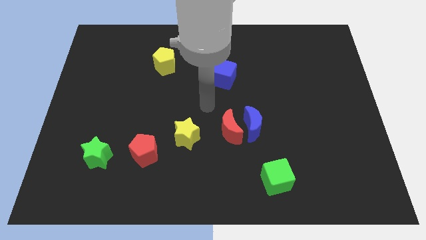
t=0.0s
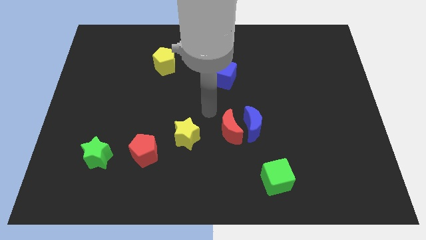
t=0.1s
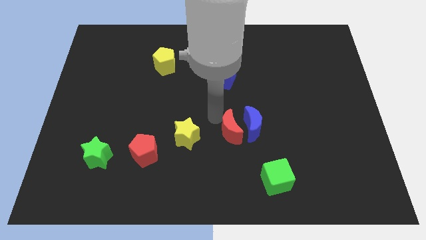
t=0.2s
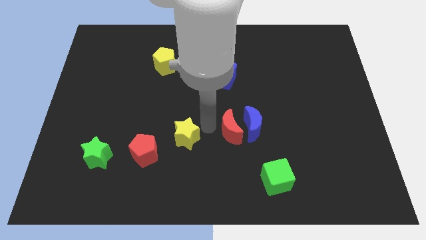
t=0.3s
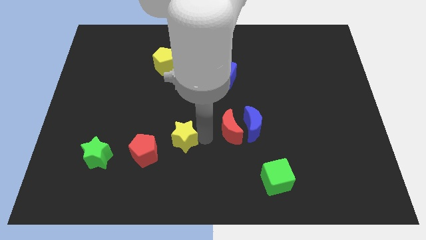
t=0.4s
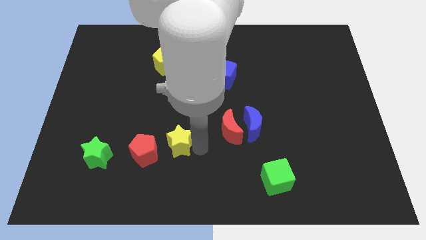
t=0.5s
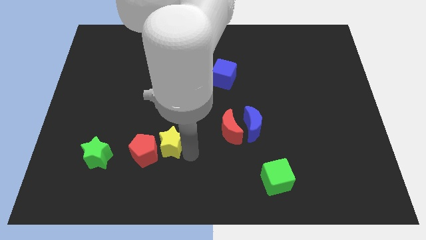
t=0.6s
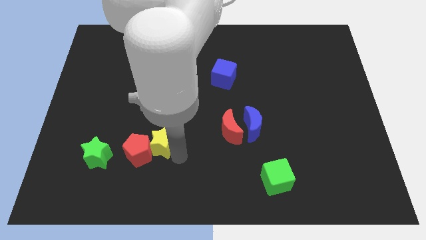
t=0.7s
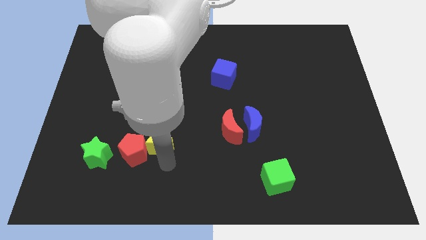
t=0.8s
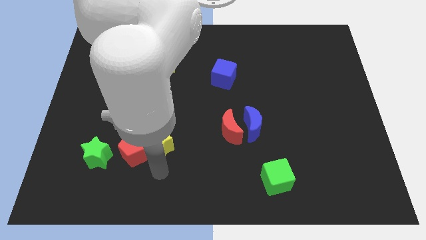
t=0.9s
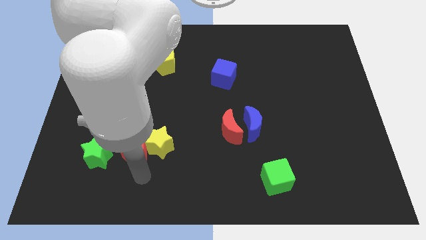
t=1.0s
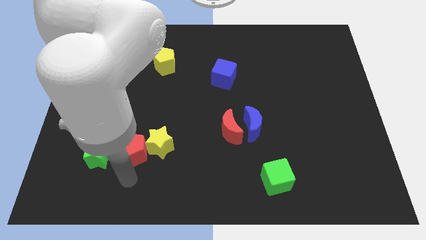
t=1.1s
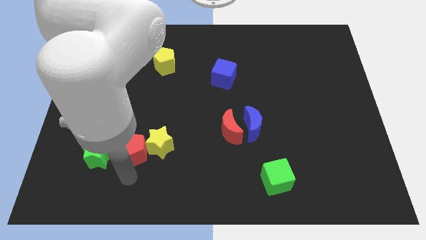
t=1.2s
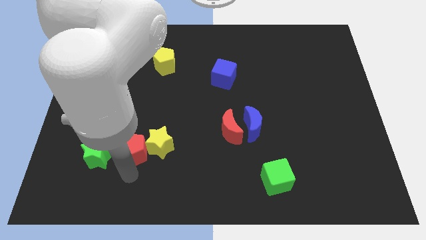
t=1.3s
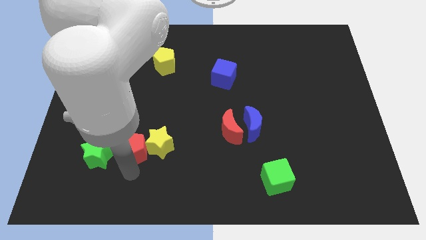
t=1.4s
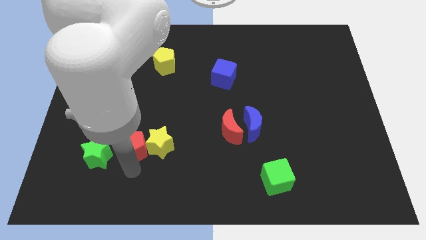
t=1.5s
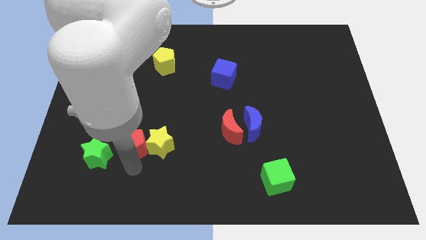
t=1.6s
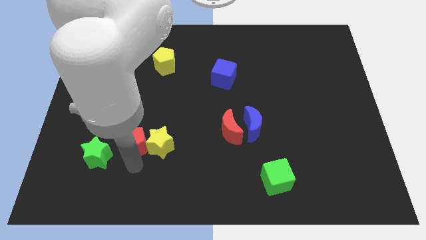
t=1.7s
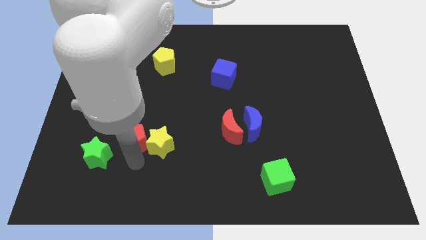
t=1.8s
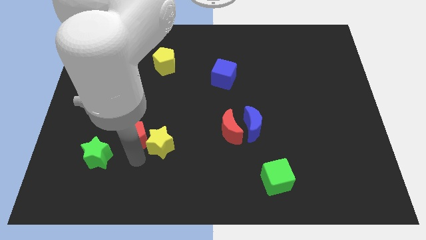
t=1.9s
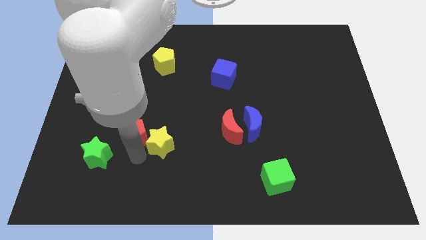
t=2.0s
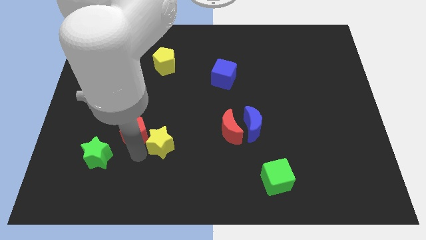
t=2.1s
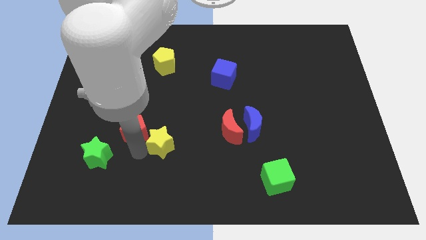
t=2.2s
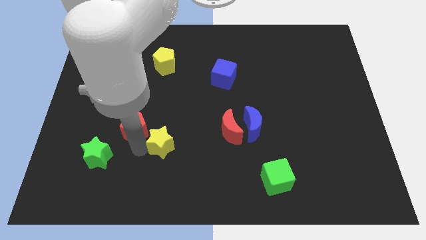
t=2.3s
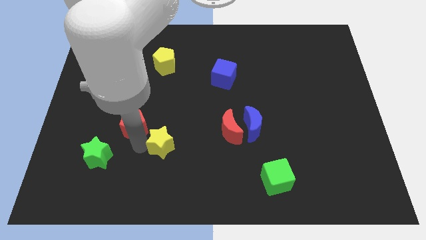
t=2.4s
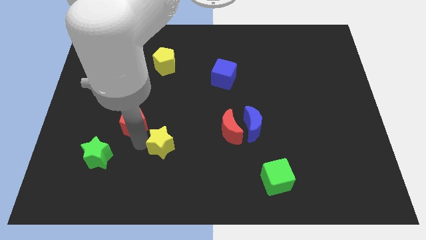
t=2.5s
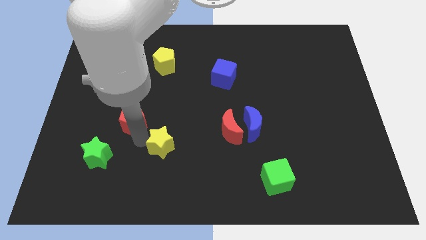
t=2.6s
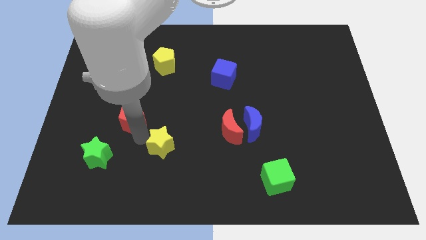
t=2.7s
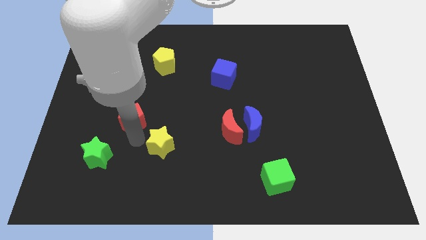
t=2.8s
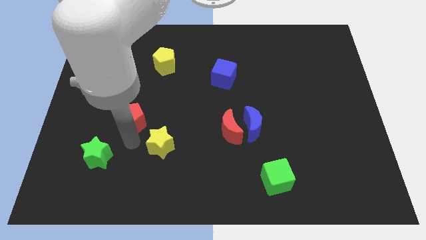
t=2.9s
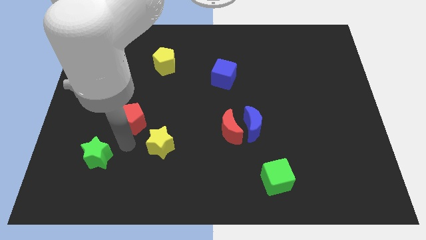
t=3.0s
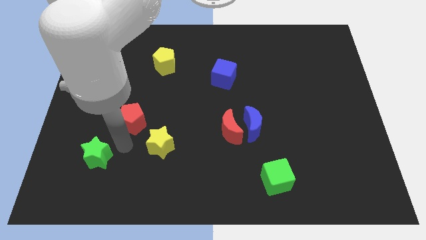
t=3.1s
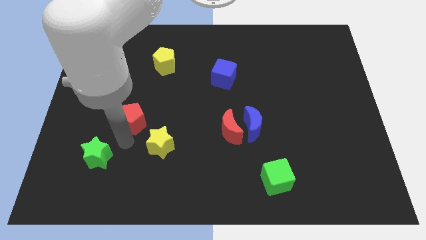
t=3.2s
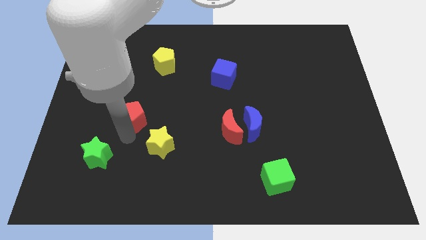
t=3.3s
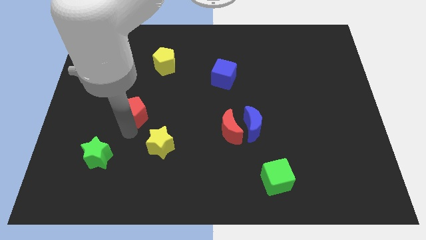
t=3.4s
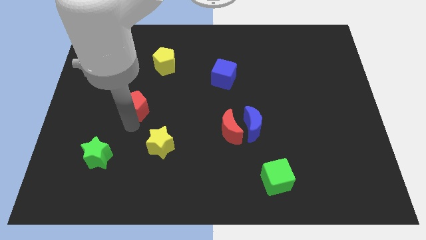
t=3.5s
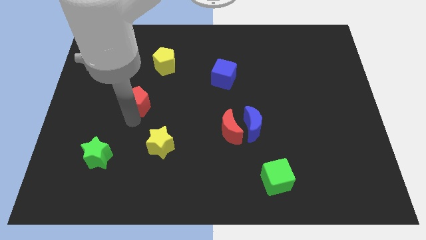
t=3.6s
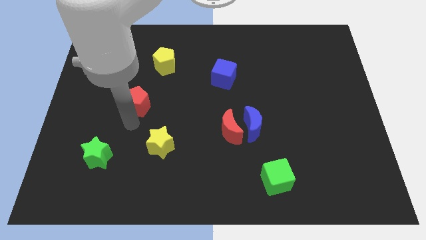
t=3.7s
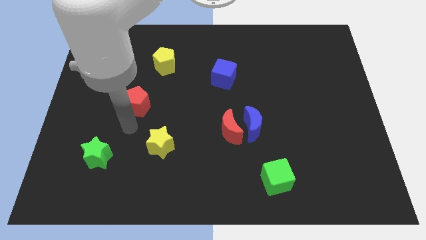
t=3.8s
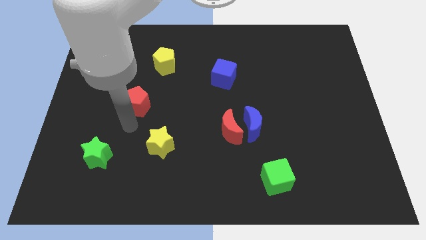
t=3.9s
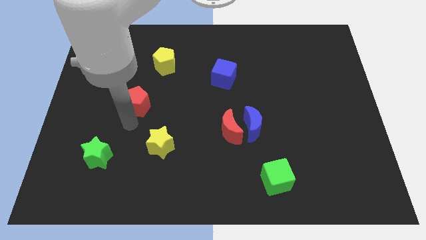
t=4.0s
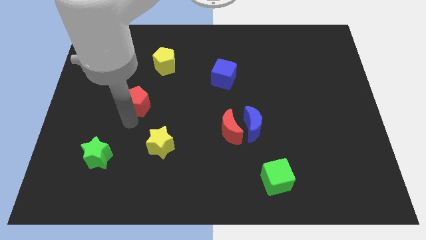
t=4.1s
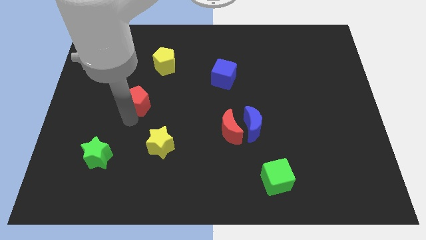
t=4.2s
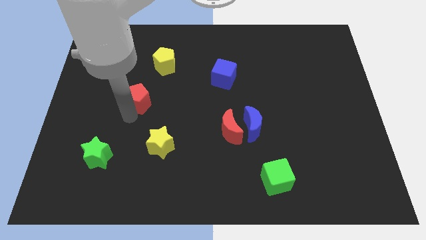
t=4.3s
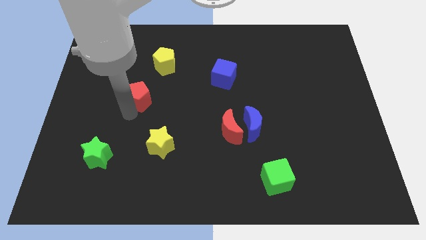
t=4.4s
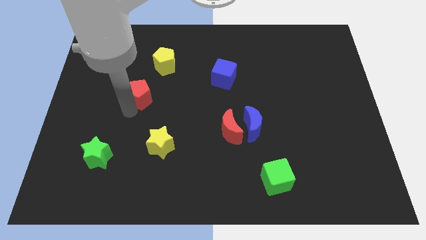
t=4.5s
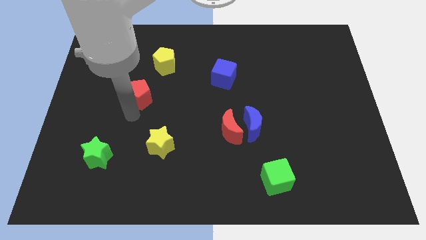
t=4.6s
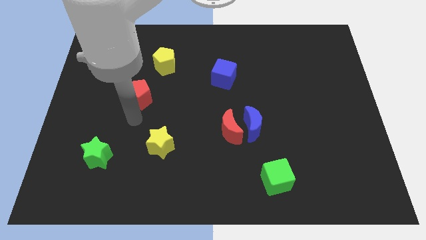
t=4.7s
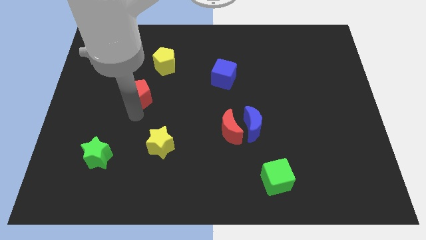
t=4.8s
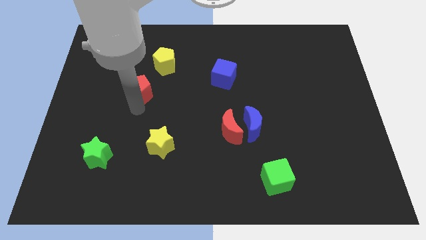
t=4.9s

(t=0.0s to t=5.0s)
push the red pentagon to the bottom left side of the yellow pentagon

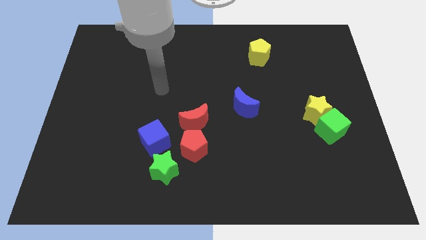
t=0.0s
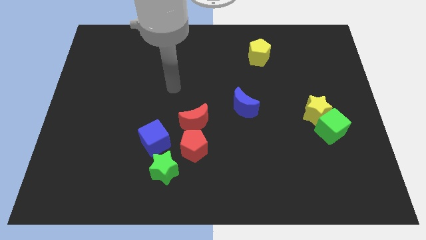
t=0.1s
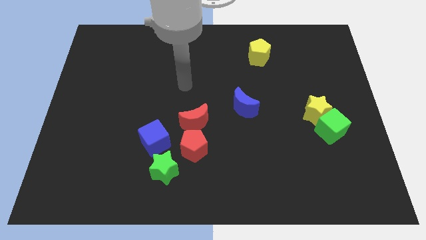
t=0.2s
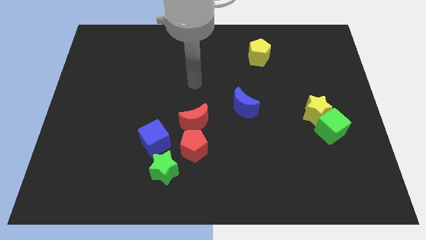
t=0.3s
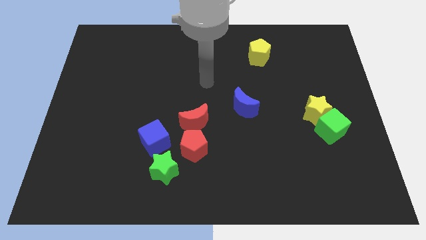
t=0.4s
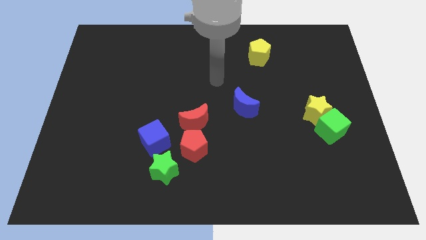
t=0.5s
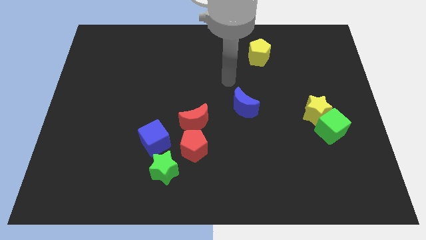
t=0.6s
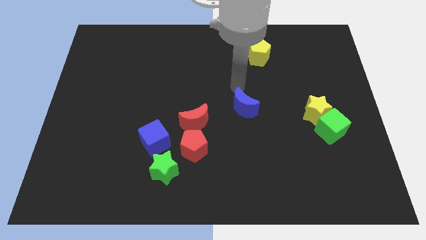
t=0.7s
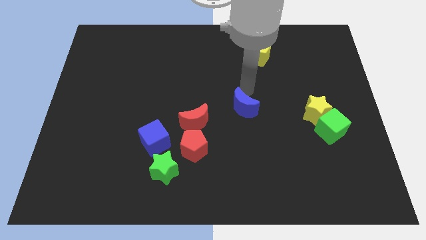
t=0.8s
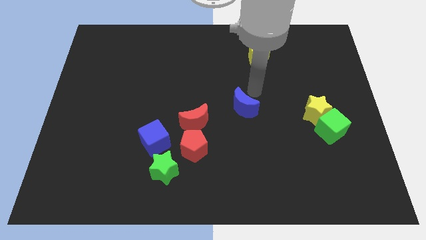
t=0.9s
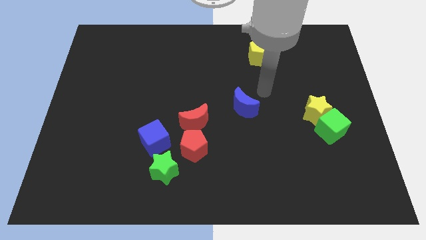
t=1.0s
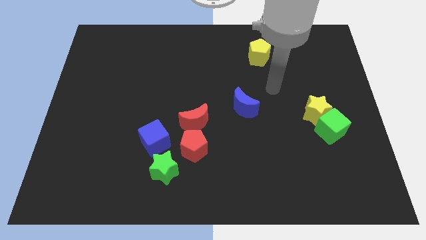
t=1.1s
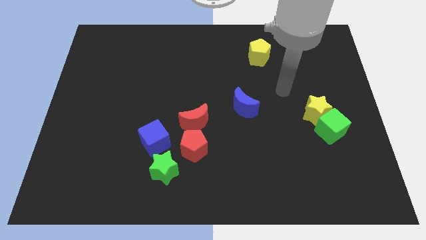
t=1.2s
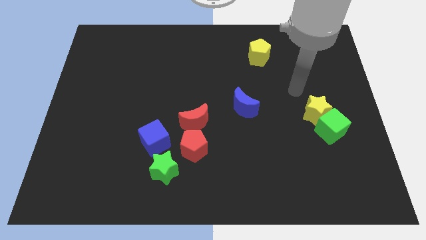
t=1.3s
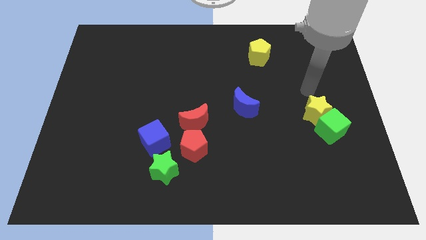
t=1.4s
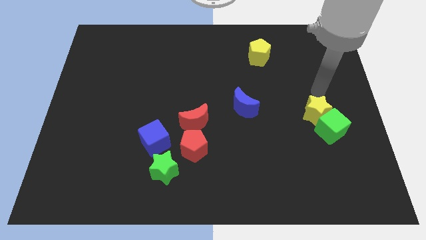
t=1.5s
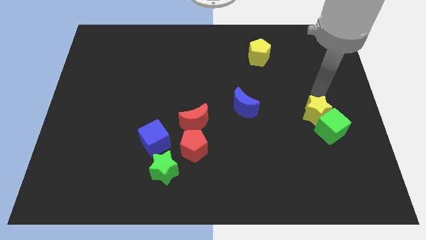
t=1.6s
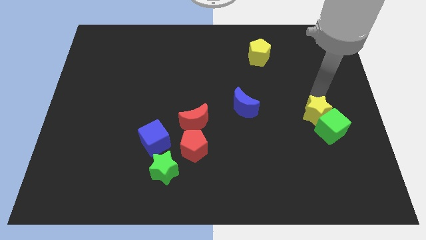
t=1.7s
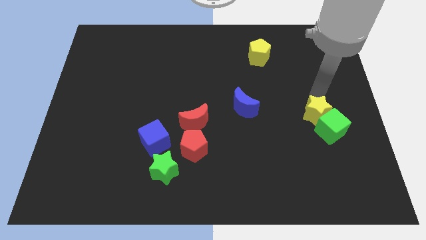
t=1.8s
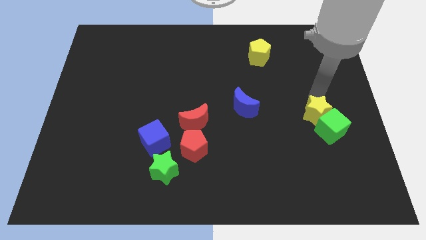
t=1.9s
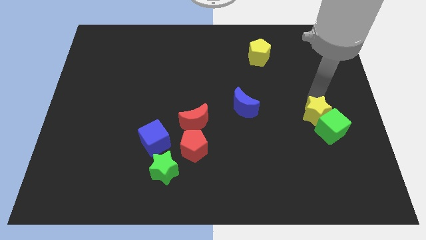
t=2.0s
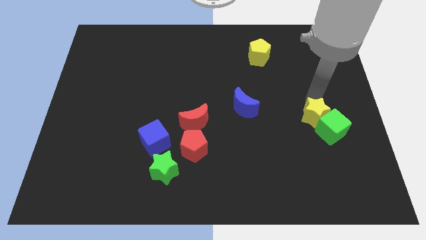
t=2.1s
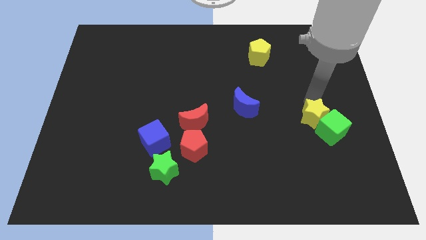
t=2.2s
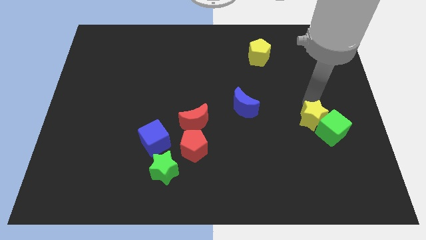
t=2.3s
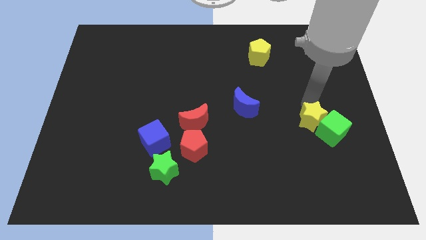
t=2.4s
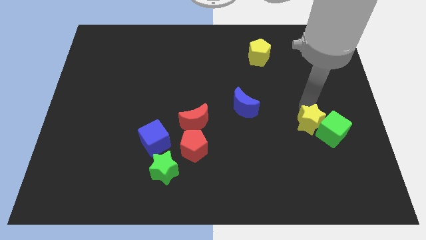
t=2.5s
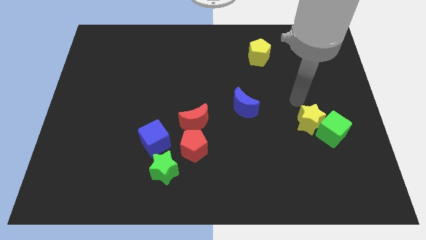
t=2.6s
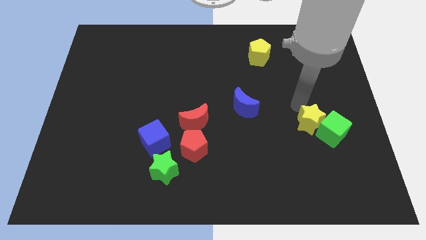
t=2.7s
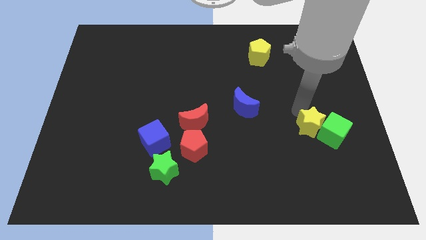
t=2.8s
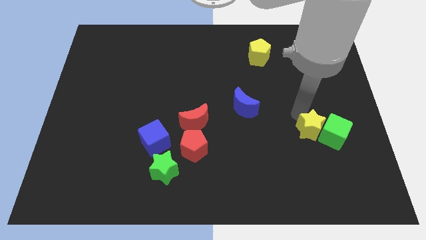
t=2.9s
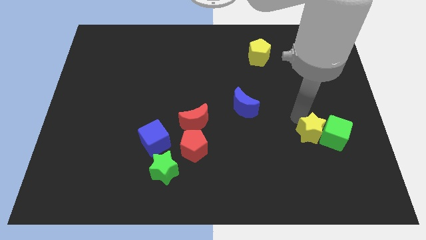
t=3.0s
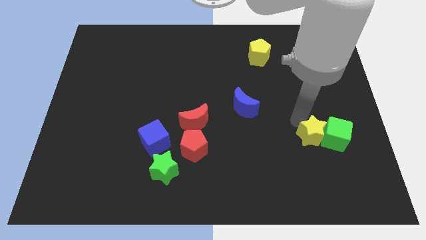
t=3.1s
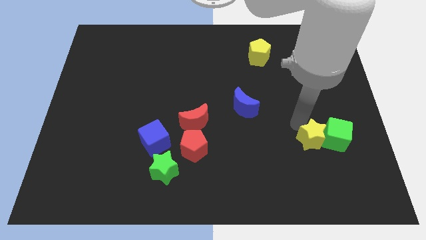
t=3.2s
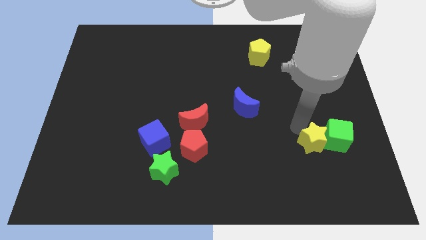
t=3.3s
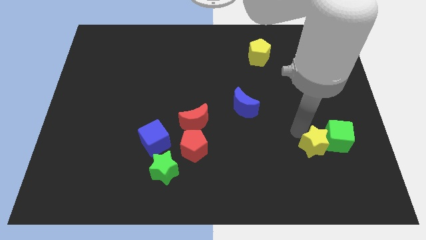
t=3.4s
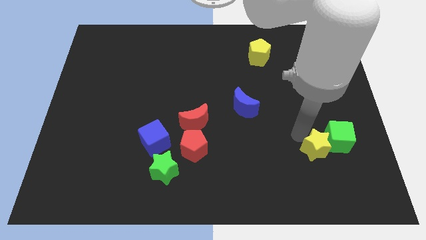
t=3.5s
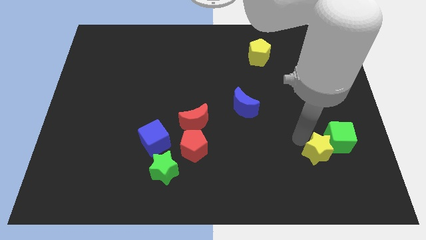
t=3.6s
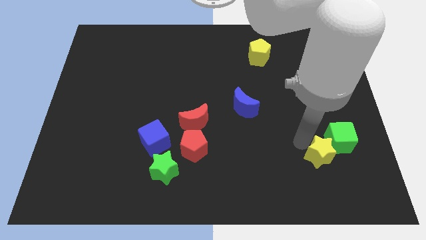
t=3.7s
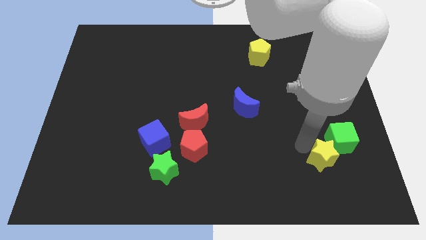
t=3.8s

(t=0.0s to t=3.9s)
put the yellow star to the bottom of the green cube
